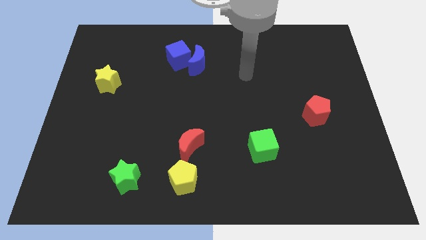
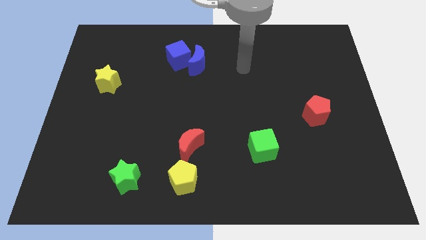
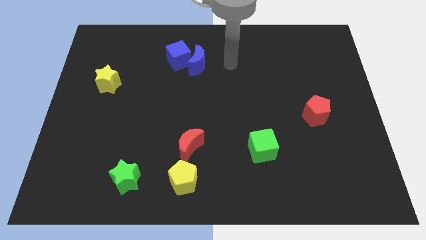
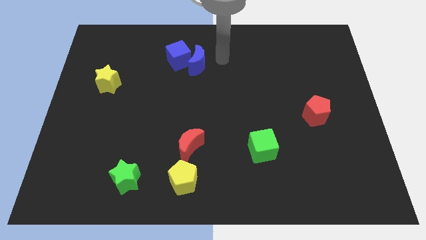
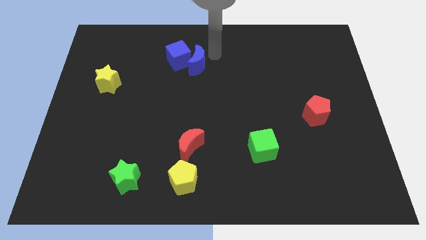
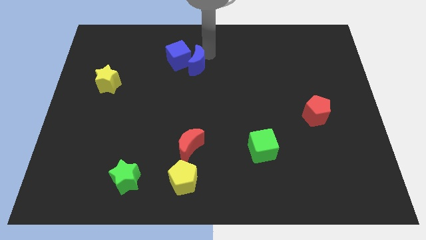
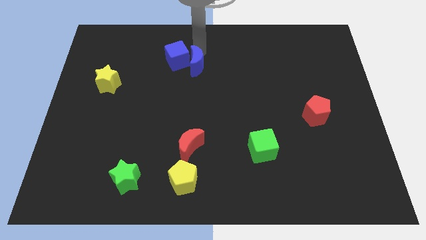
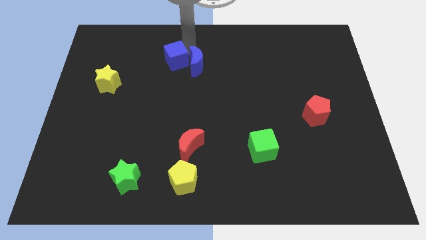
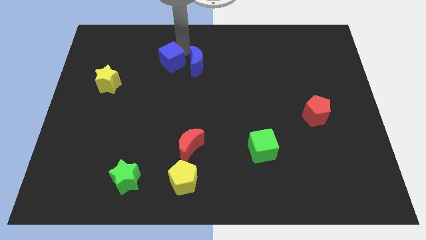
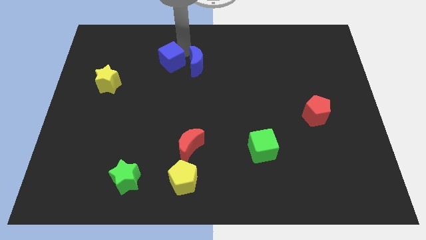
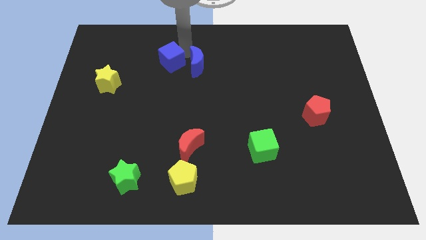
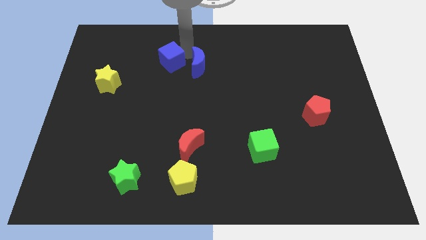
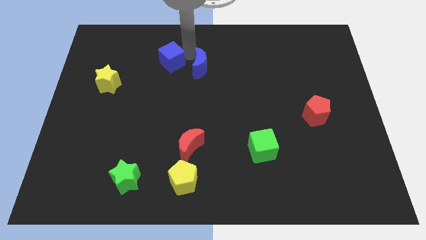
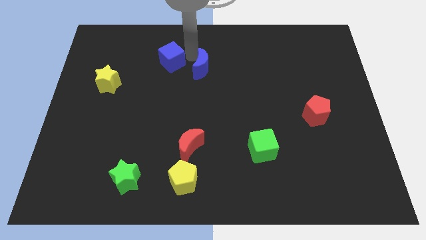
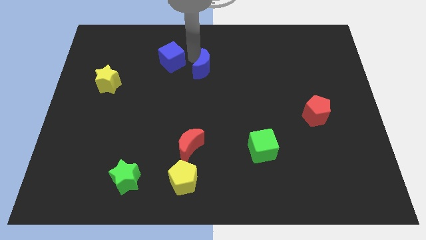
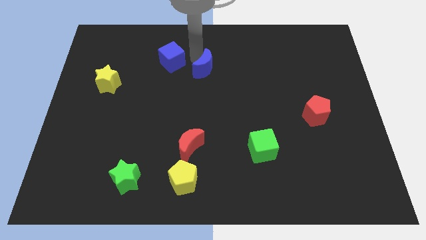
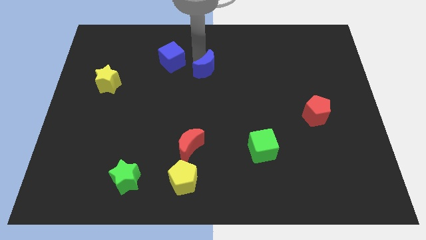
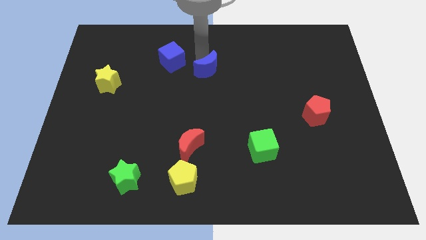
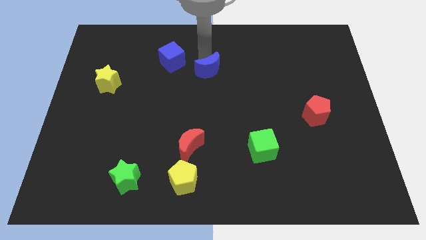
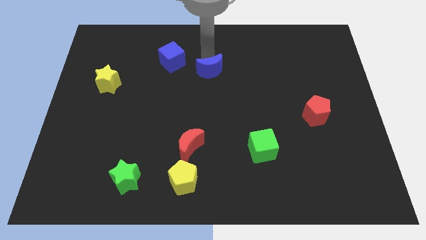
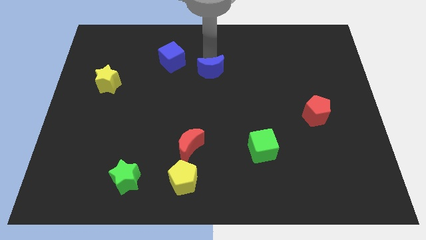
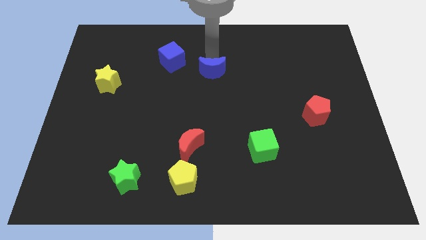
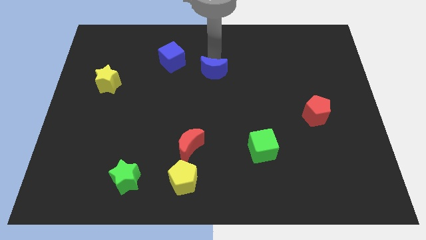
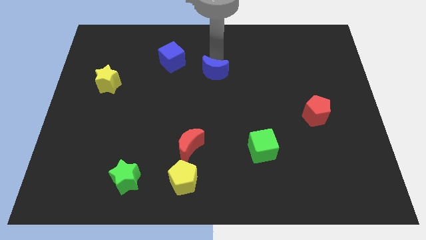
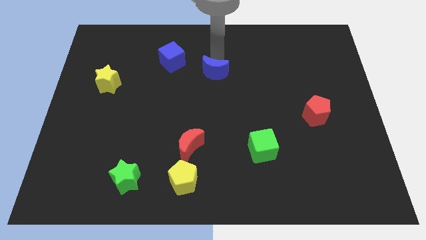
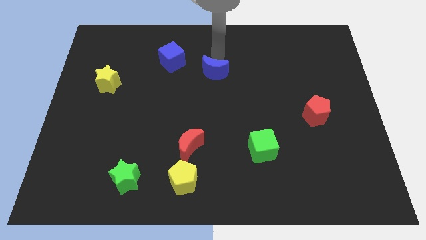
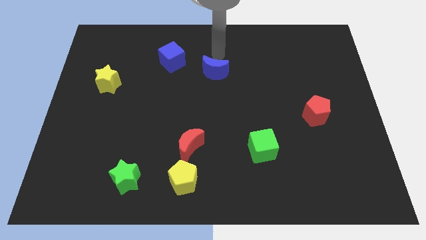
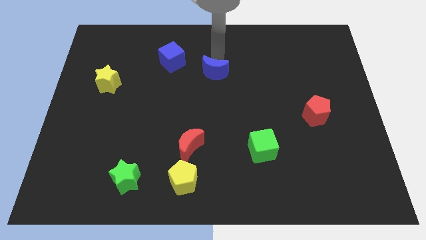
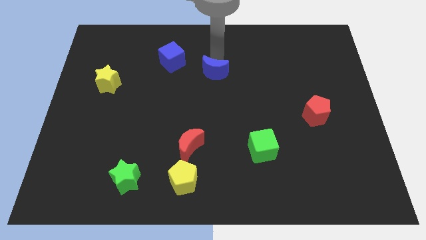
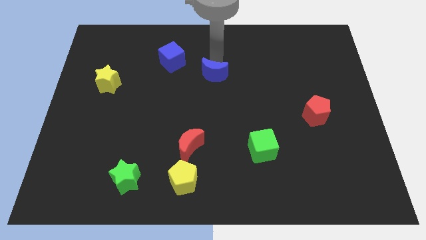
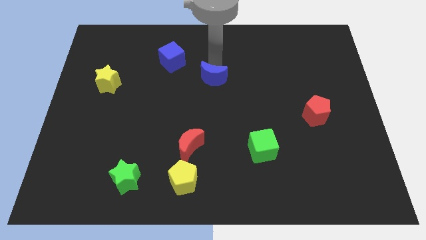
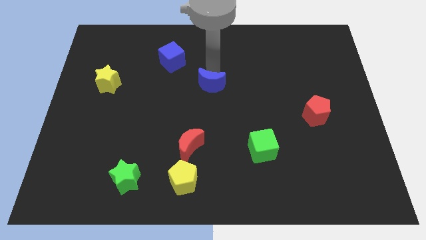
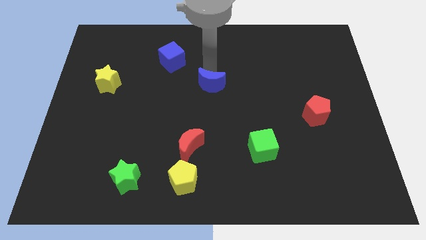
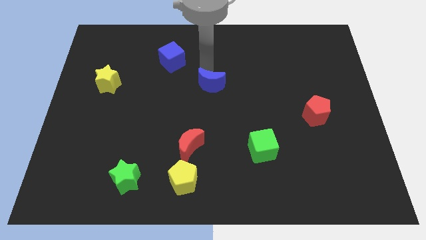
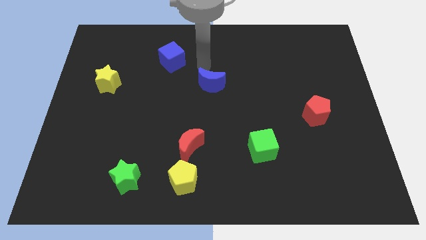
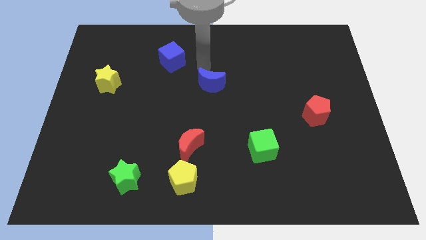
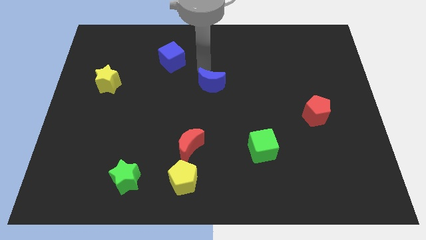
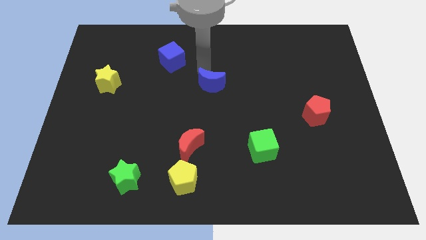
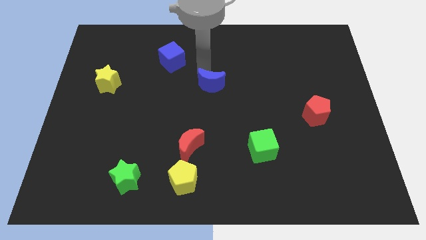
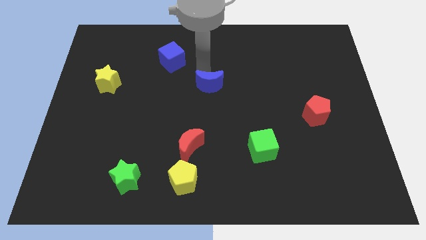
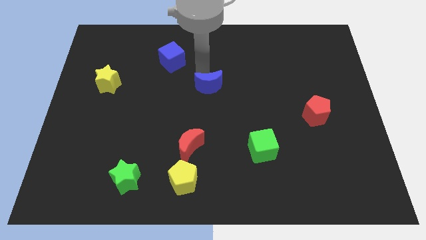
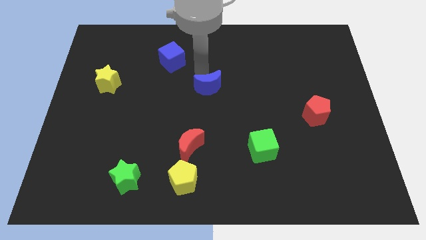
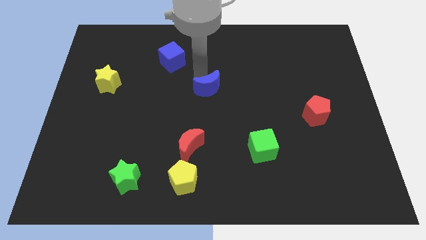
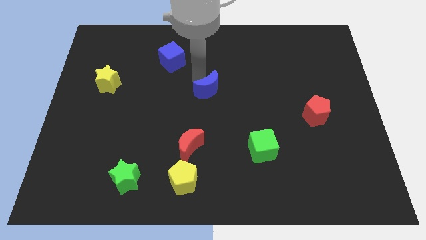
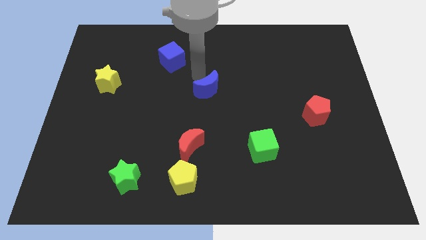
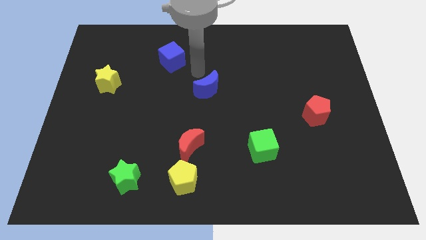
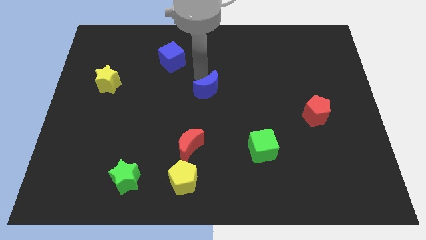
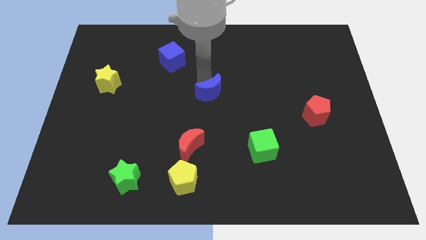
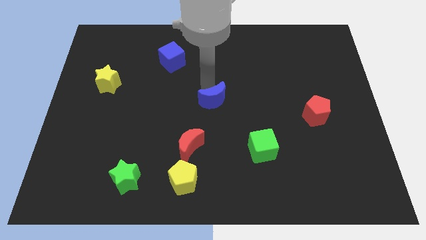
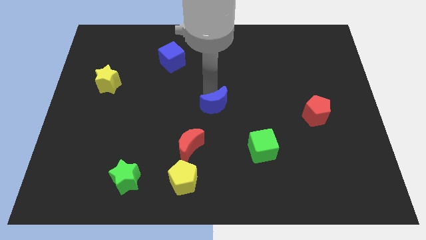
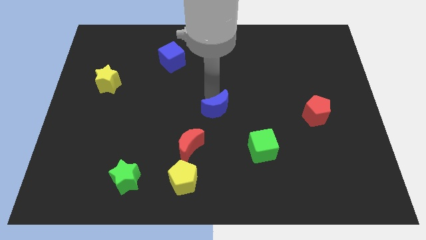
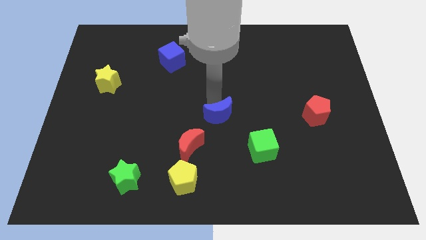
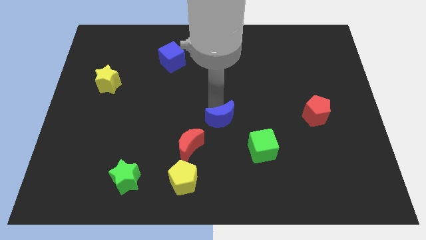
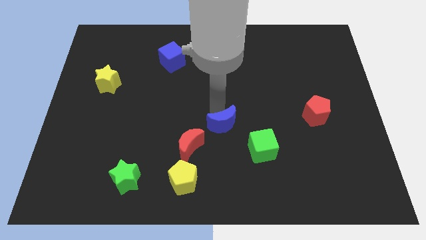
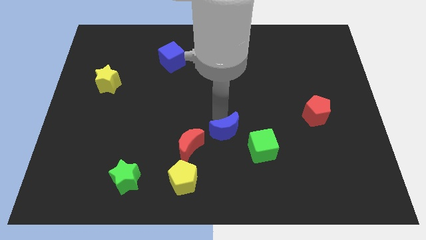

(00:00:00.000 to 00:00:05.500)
move the blue moon right of the red moon

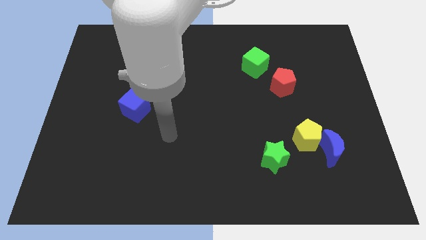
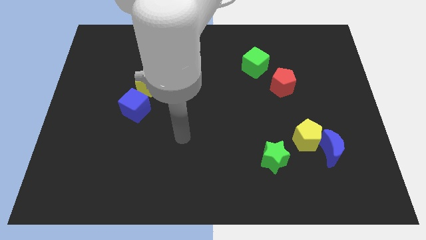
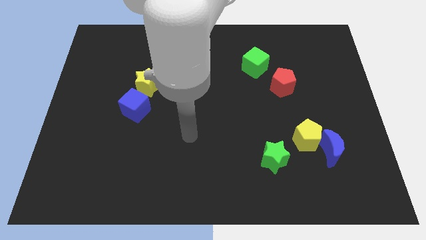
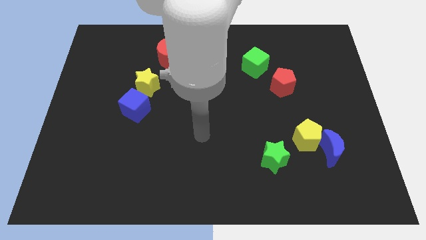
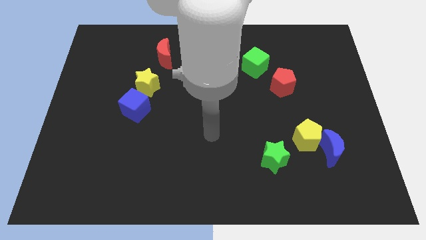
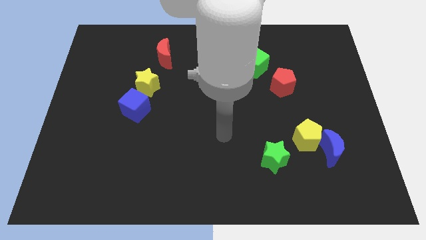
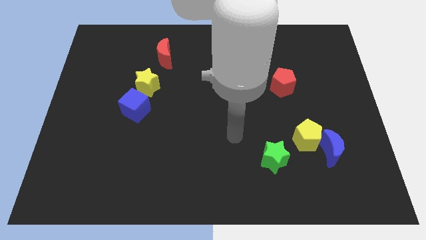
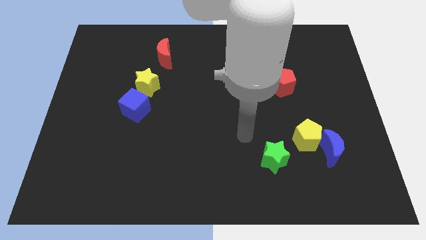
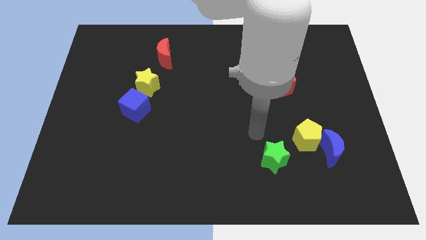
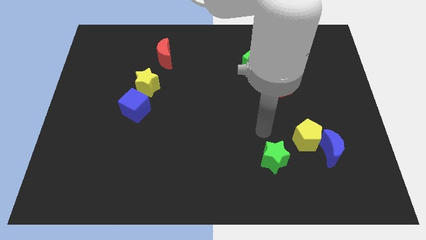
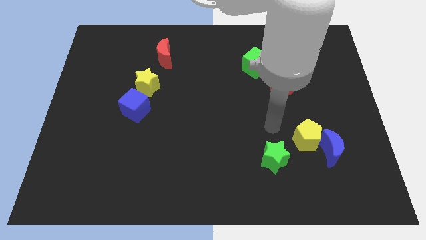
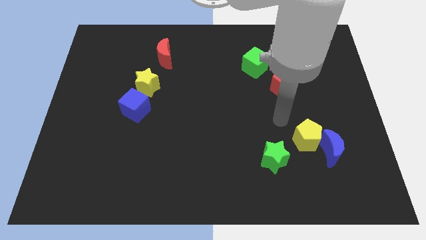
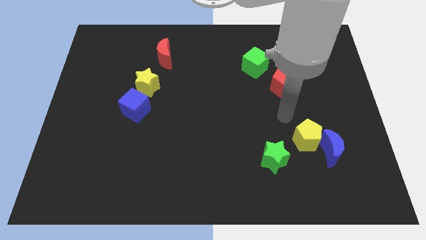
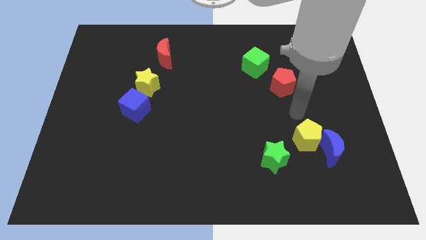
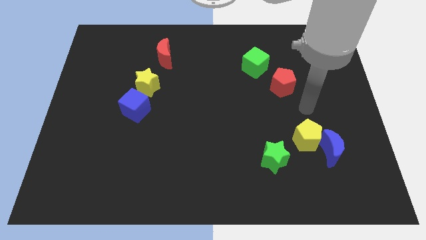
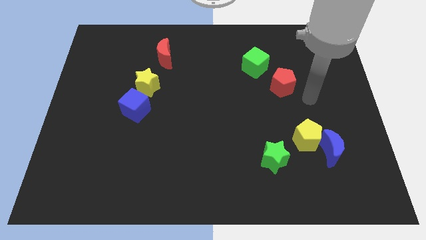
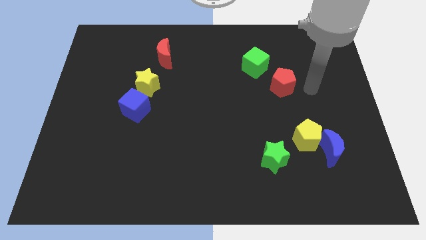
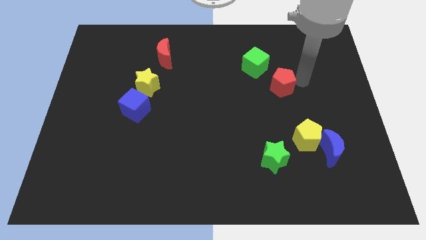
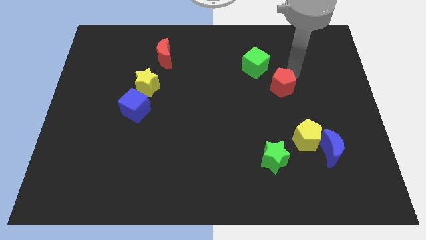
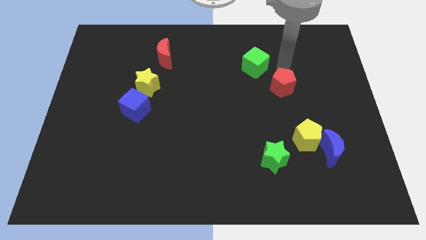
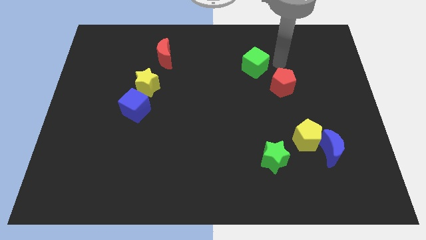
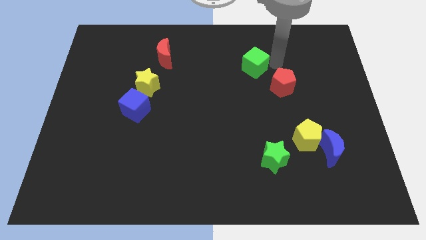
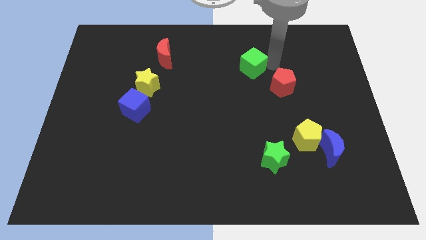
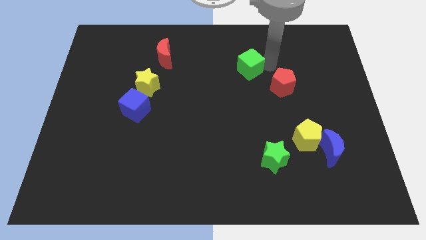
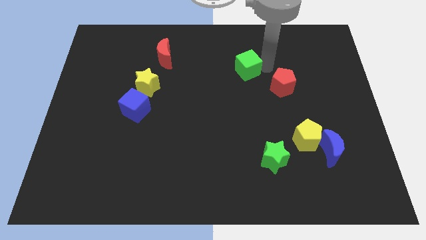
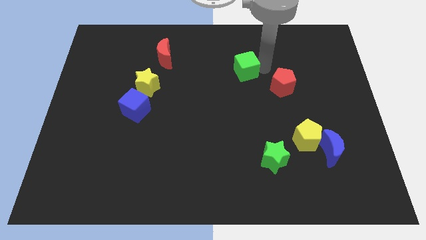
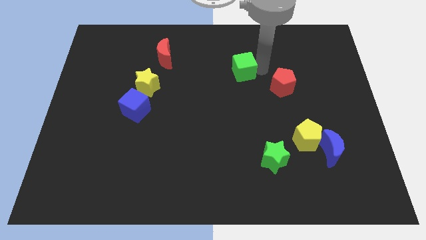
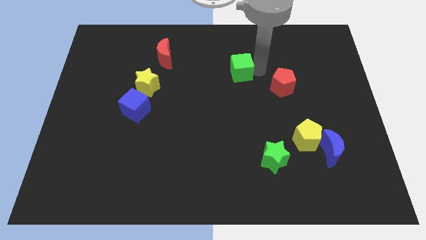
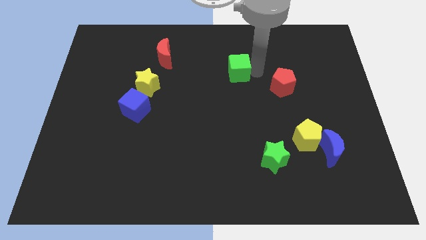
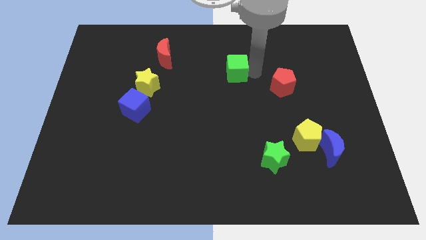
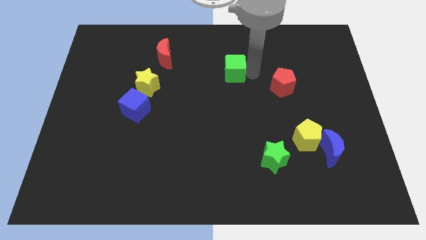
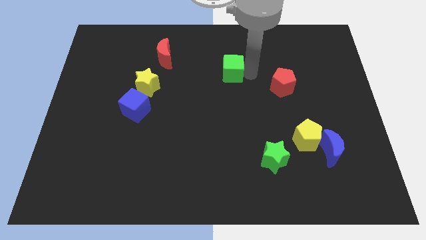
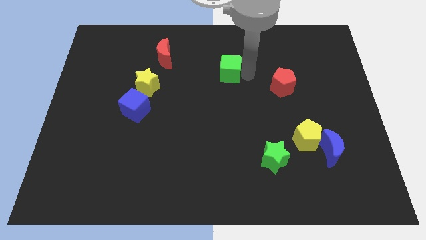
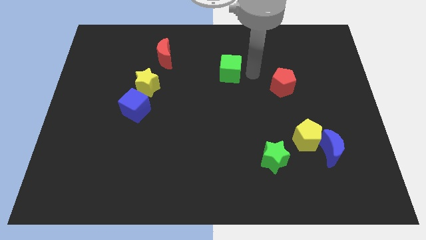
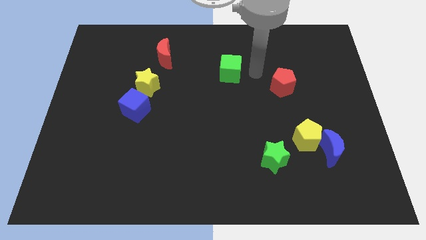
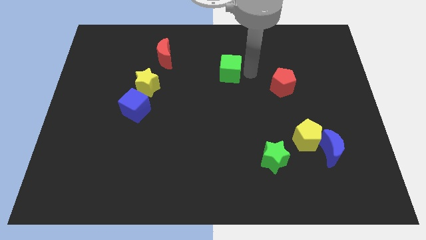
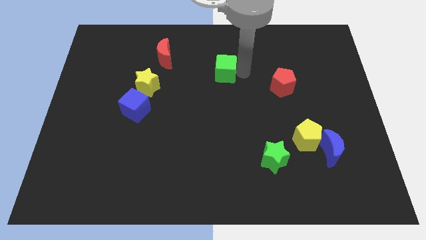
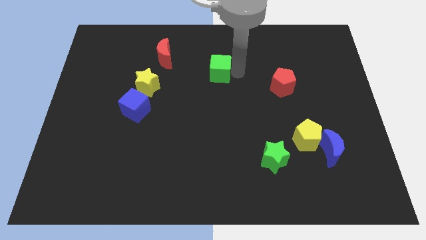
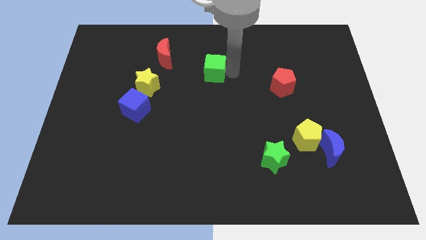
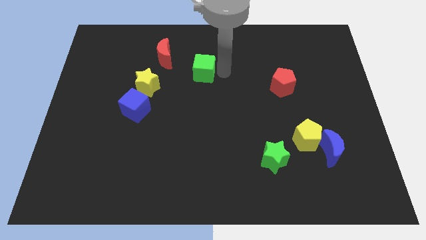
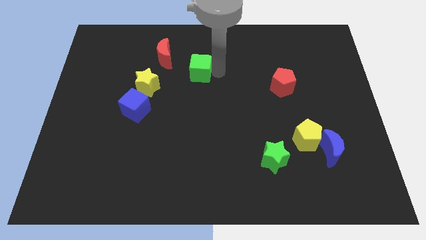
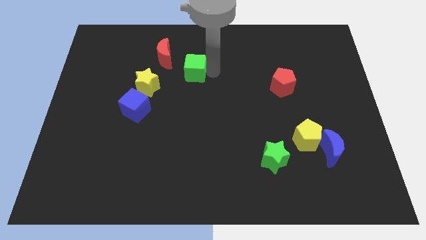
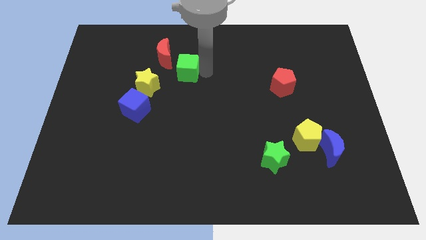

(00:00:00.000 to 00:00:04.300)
slide the green cube to the top right side of the yellow star
